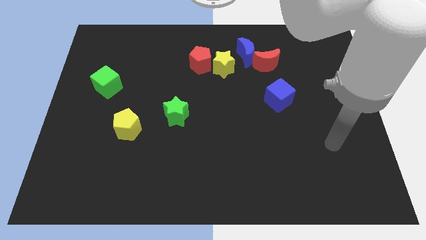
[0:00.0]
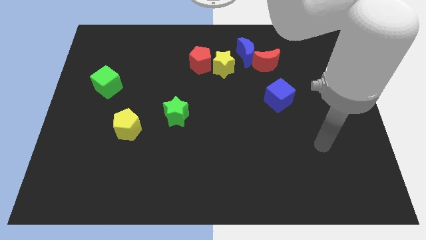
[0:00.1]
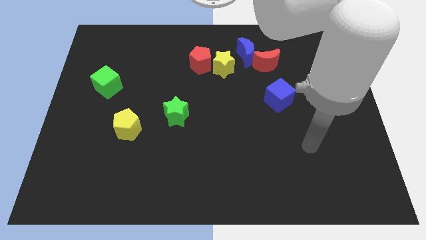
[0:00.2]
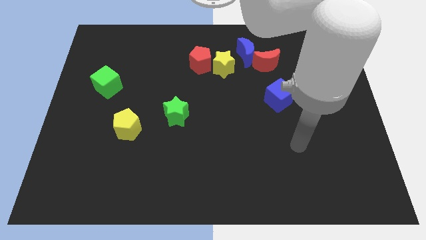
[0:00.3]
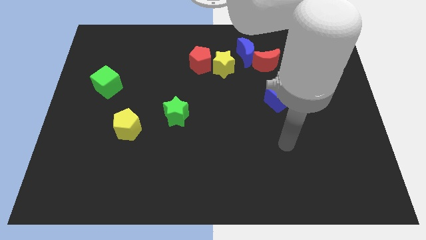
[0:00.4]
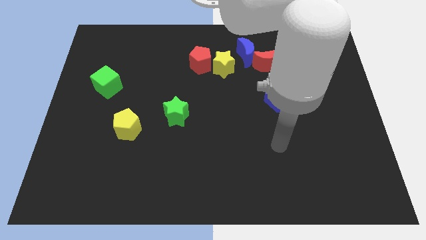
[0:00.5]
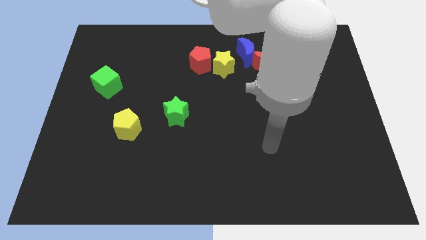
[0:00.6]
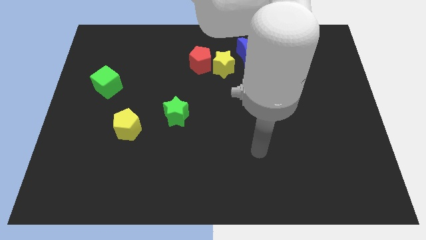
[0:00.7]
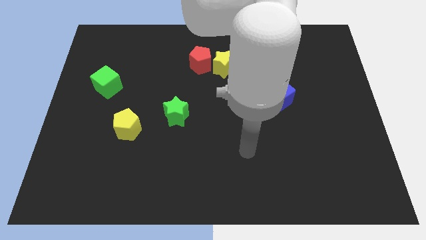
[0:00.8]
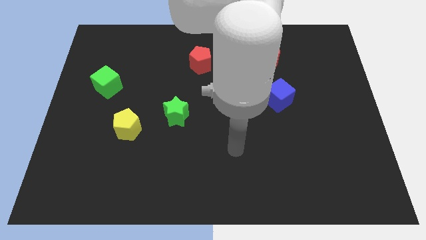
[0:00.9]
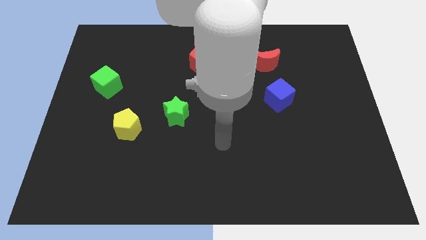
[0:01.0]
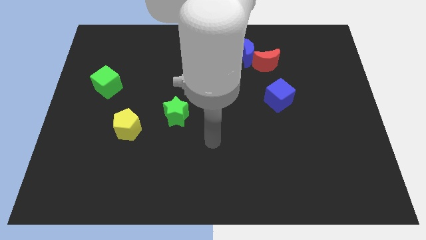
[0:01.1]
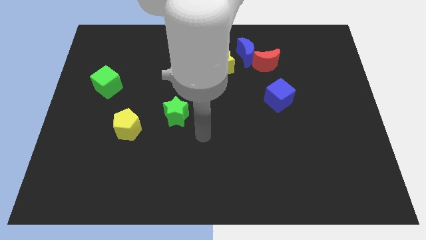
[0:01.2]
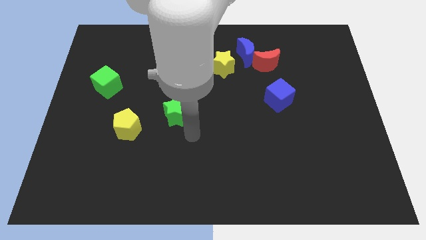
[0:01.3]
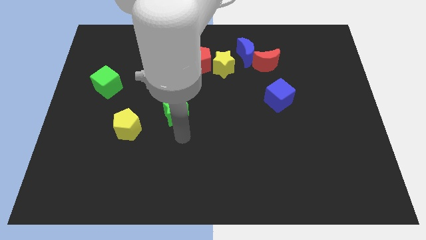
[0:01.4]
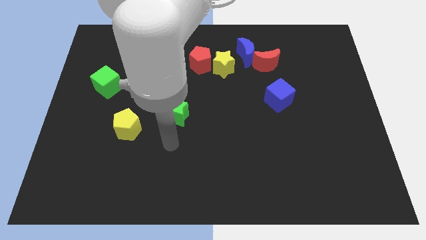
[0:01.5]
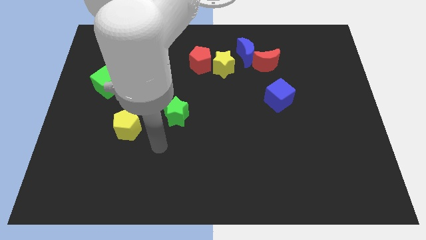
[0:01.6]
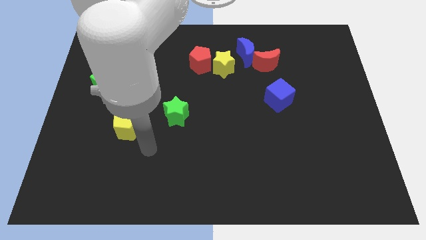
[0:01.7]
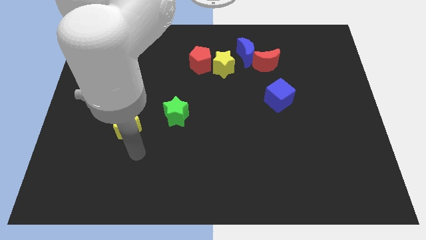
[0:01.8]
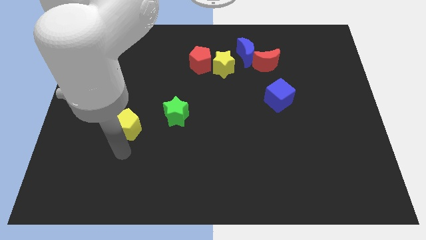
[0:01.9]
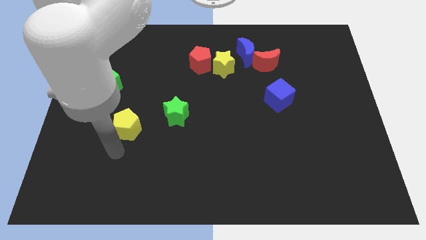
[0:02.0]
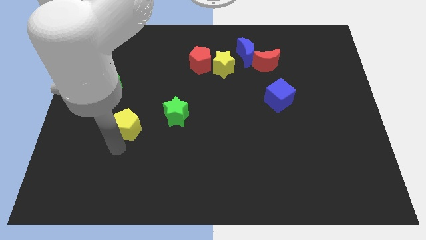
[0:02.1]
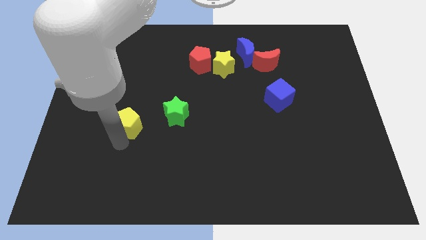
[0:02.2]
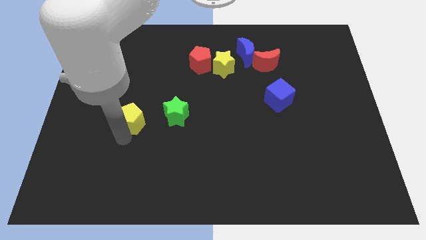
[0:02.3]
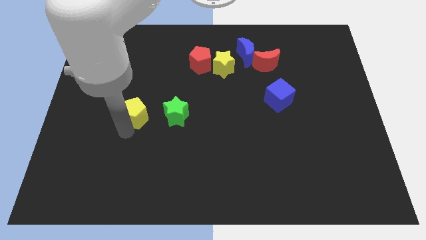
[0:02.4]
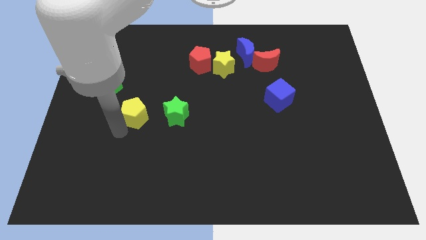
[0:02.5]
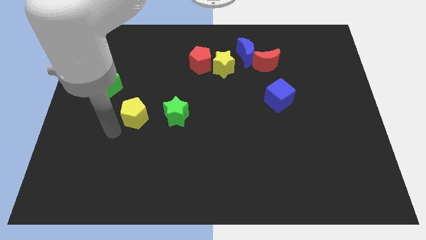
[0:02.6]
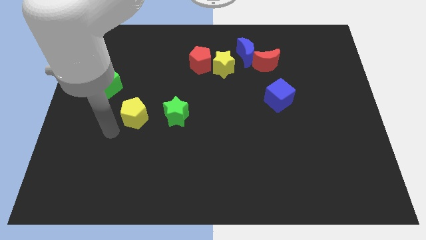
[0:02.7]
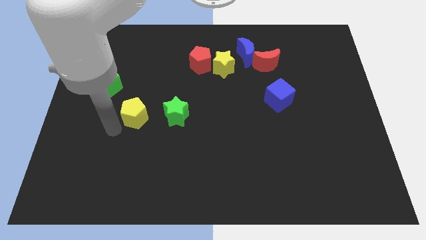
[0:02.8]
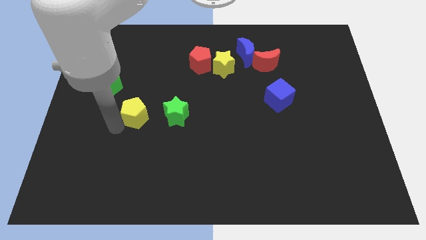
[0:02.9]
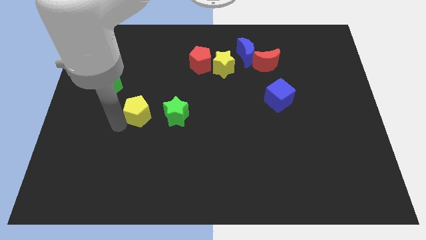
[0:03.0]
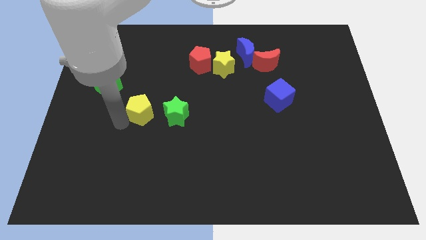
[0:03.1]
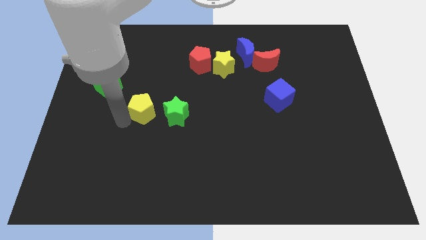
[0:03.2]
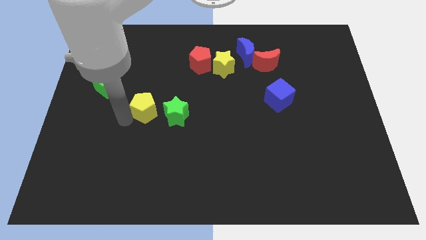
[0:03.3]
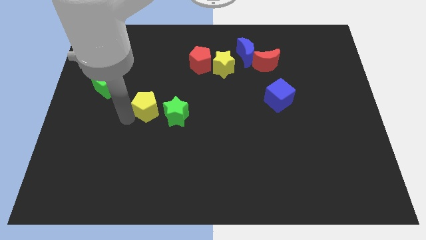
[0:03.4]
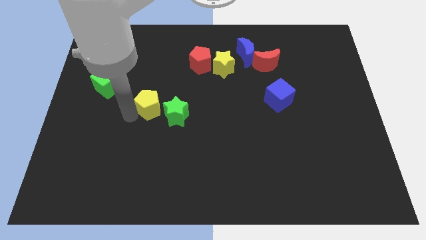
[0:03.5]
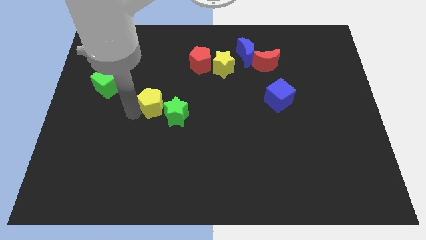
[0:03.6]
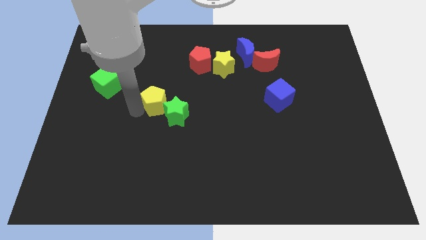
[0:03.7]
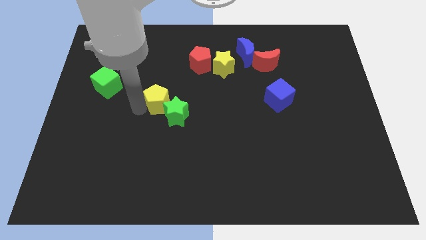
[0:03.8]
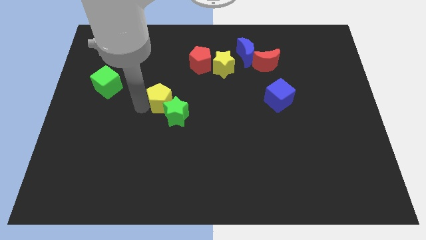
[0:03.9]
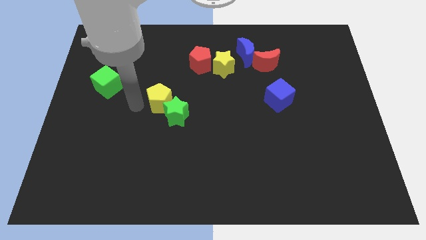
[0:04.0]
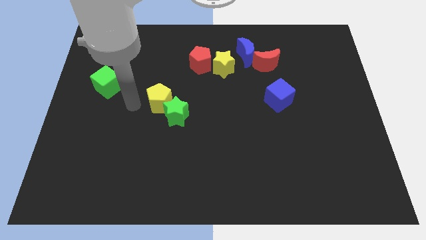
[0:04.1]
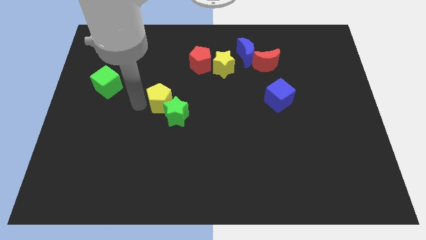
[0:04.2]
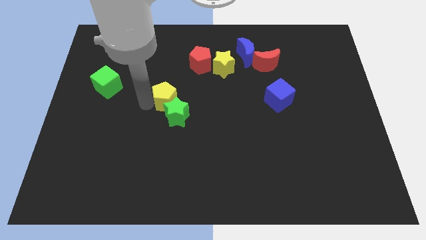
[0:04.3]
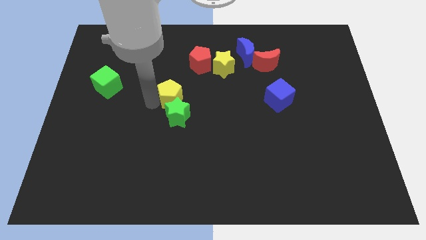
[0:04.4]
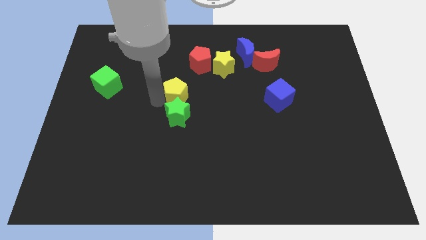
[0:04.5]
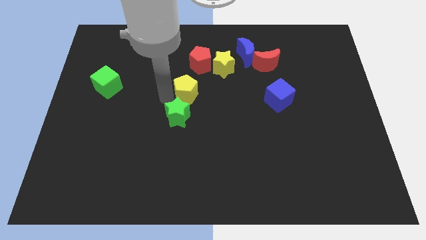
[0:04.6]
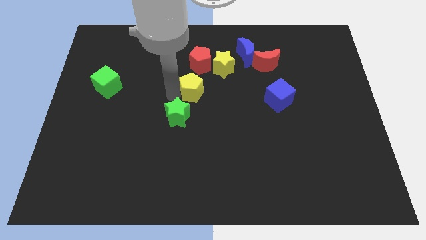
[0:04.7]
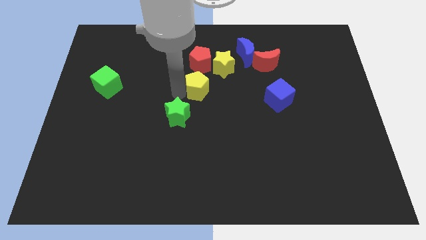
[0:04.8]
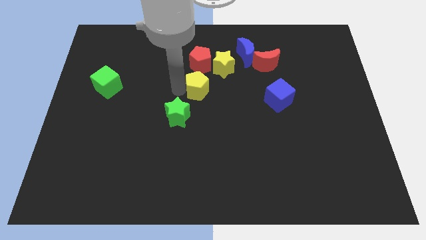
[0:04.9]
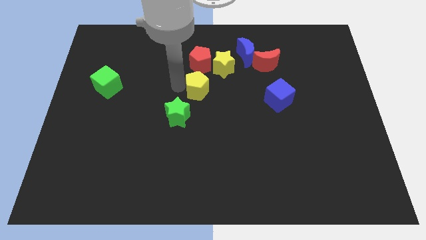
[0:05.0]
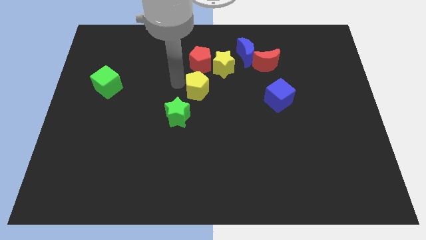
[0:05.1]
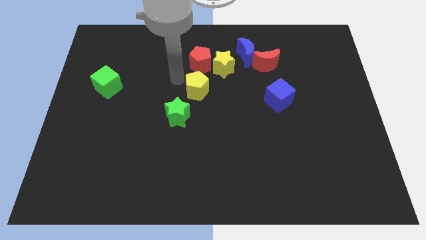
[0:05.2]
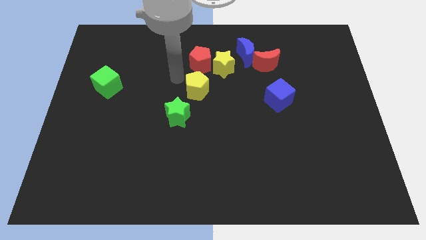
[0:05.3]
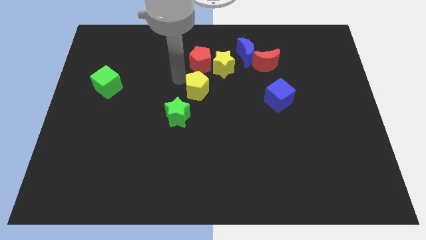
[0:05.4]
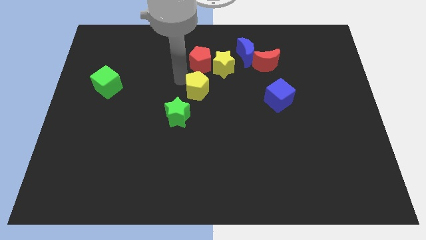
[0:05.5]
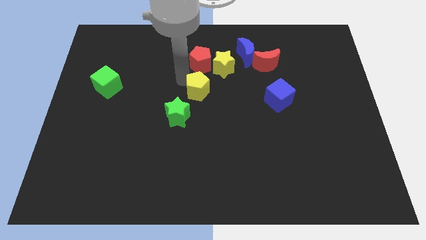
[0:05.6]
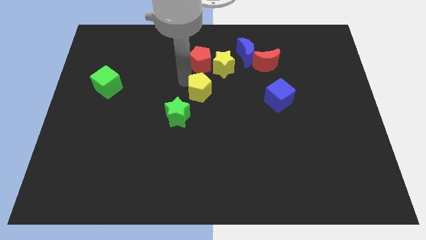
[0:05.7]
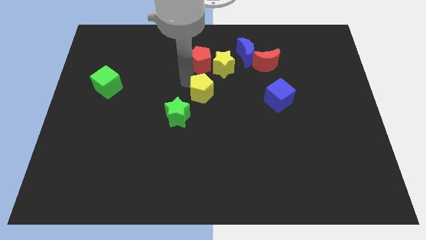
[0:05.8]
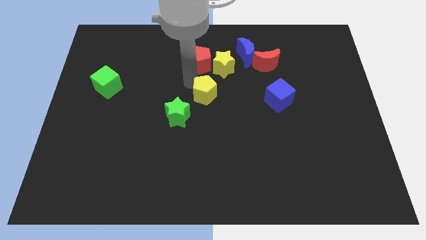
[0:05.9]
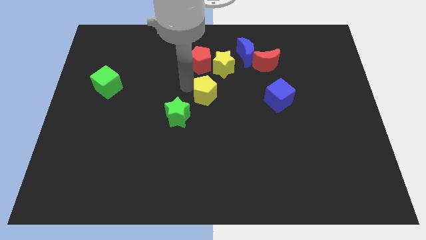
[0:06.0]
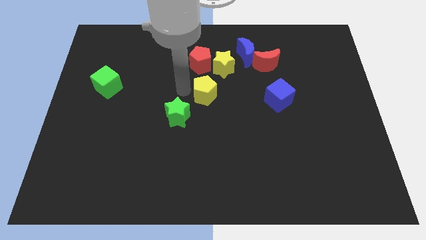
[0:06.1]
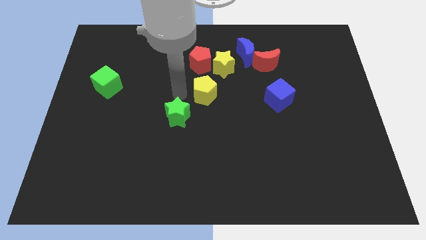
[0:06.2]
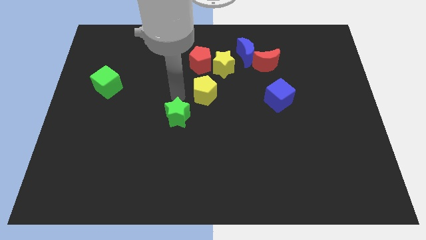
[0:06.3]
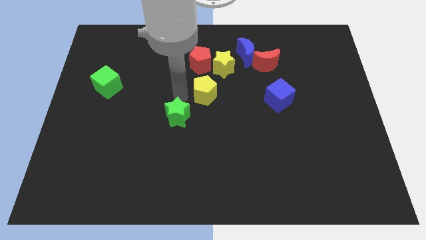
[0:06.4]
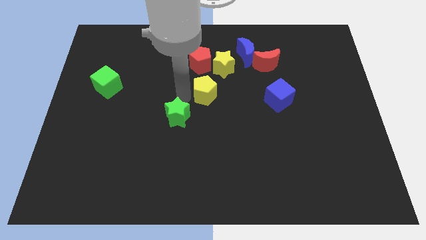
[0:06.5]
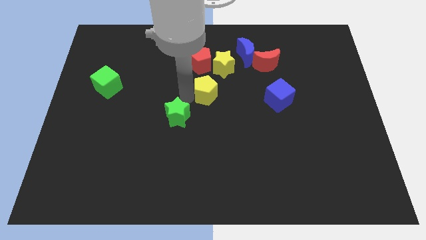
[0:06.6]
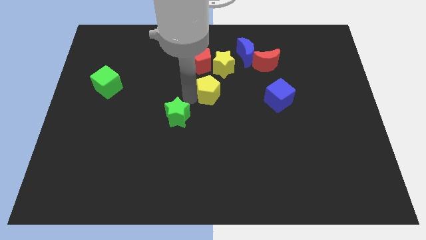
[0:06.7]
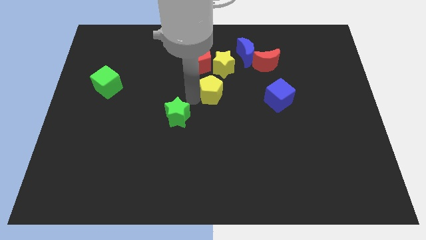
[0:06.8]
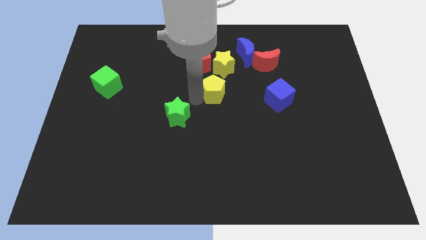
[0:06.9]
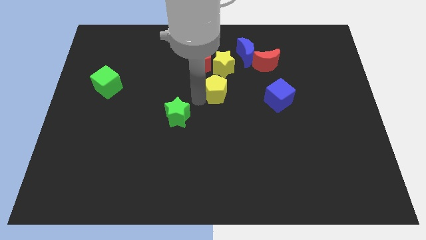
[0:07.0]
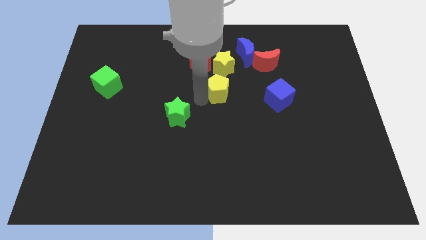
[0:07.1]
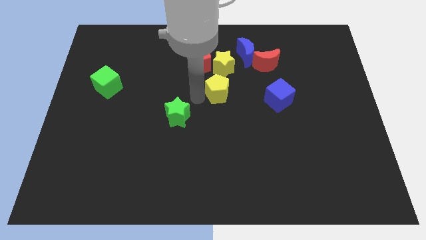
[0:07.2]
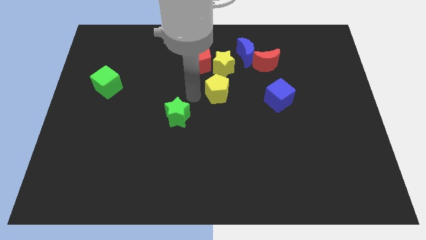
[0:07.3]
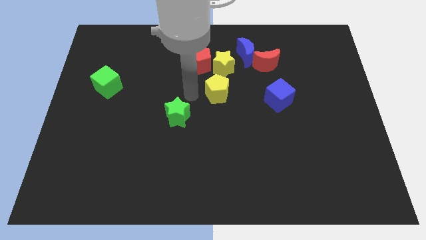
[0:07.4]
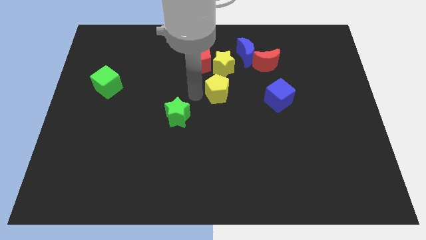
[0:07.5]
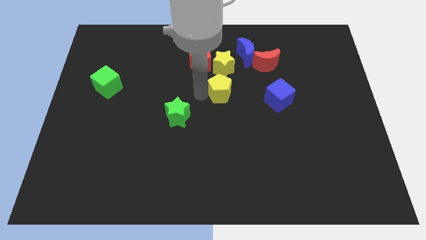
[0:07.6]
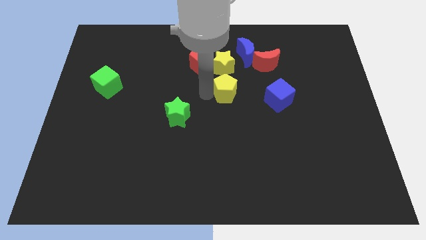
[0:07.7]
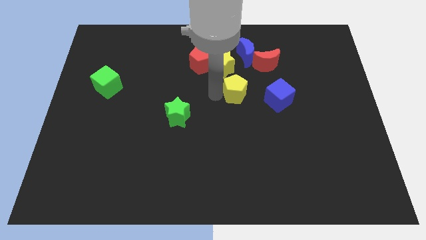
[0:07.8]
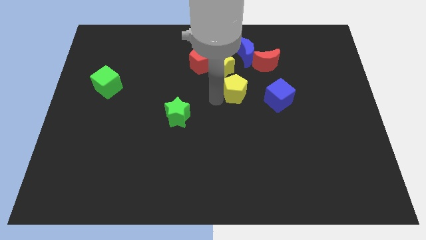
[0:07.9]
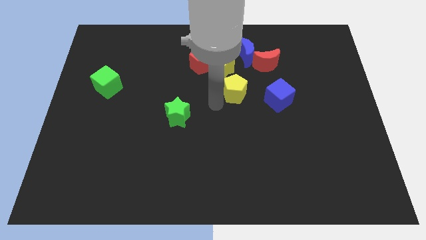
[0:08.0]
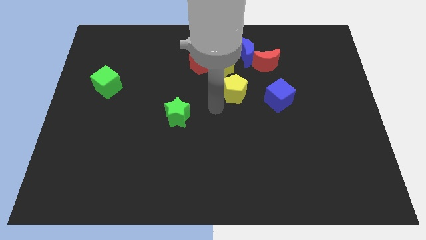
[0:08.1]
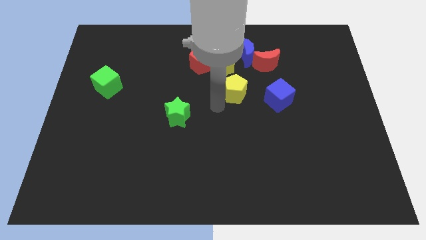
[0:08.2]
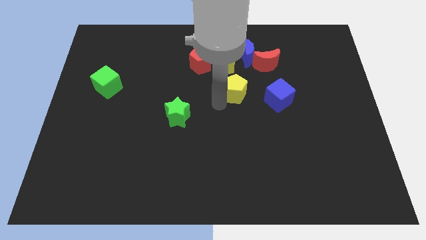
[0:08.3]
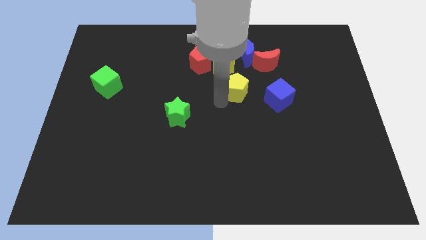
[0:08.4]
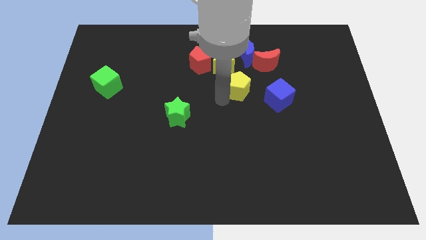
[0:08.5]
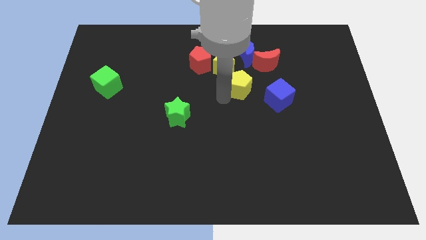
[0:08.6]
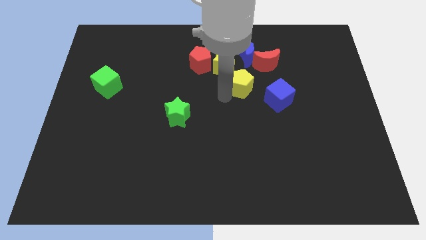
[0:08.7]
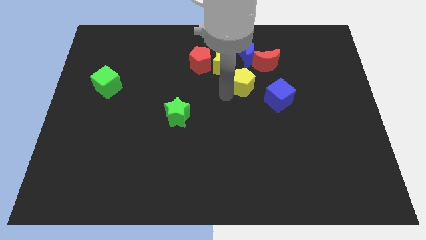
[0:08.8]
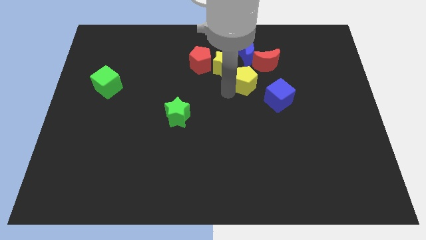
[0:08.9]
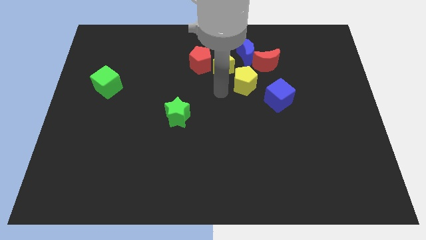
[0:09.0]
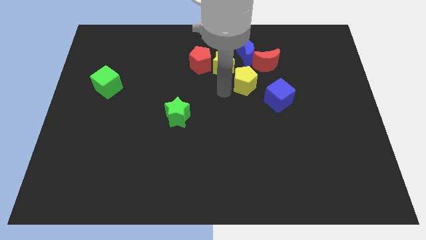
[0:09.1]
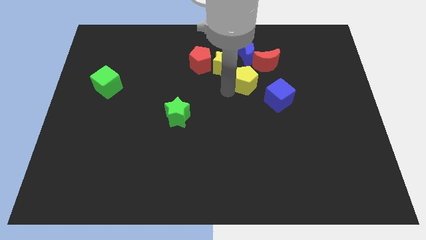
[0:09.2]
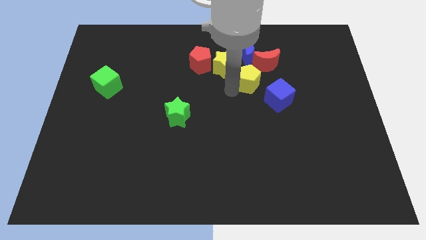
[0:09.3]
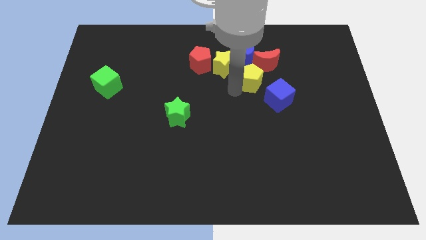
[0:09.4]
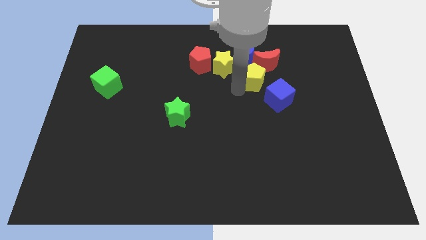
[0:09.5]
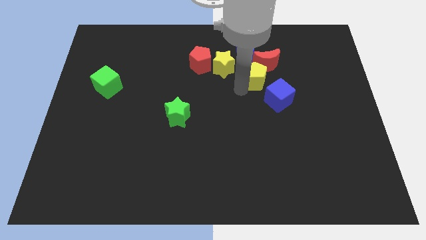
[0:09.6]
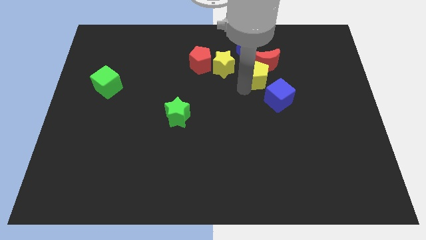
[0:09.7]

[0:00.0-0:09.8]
push the yellow pentagon to the top of the blue cube
